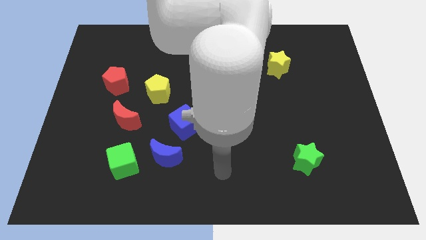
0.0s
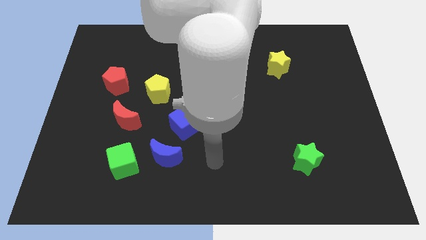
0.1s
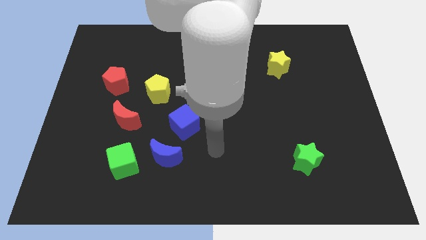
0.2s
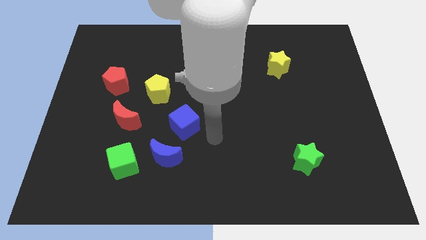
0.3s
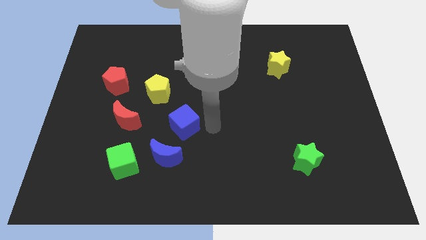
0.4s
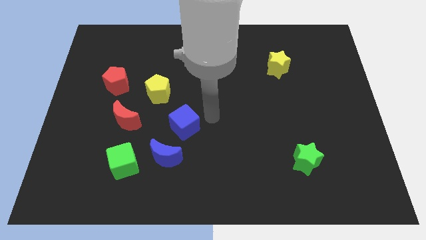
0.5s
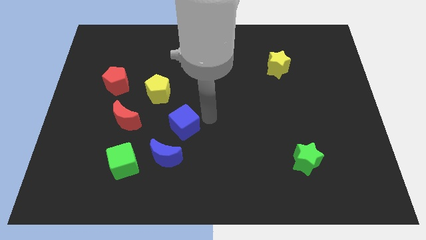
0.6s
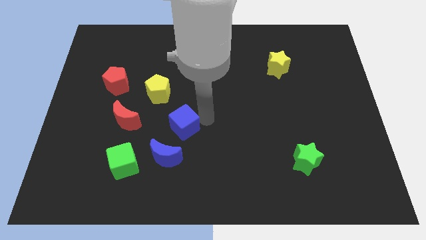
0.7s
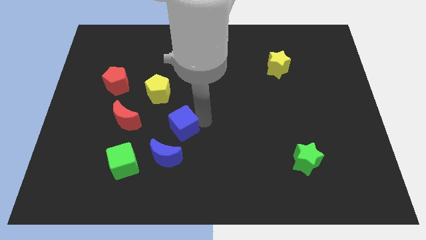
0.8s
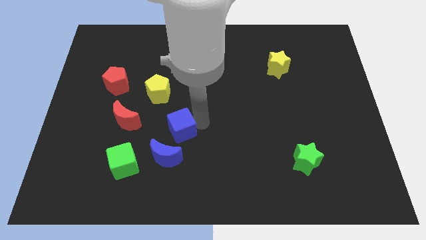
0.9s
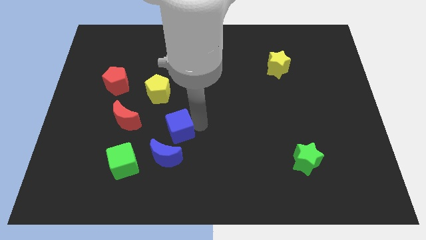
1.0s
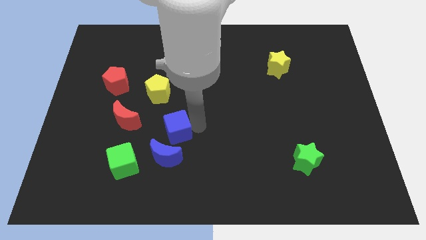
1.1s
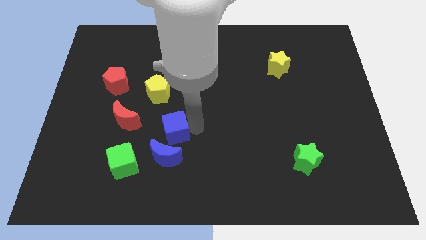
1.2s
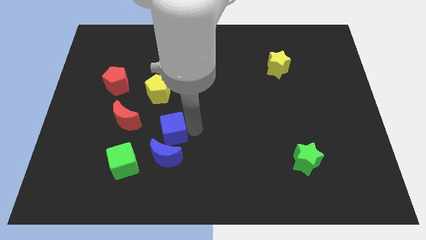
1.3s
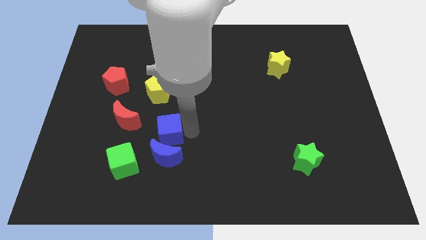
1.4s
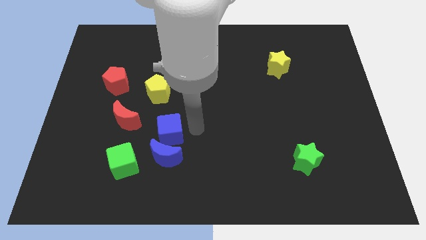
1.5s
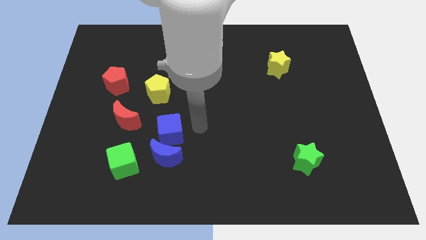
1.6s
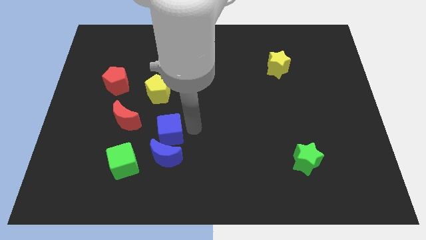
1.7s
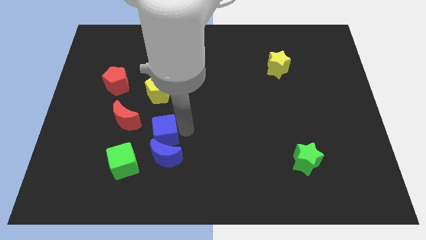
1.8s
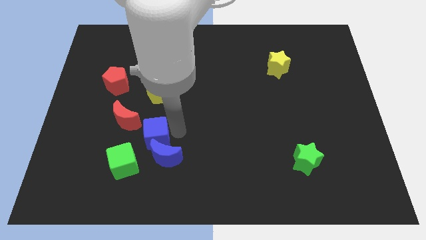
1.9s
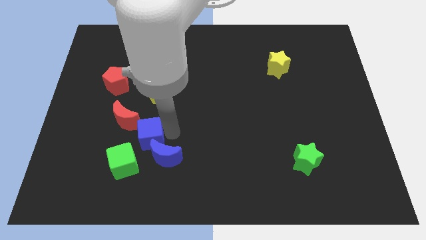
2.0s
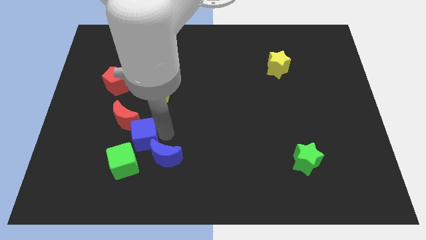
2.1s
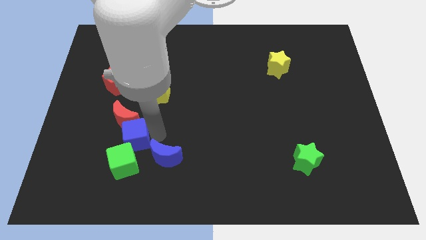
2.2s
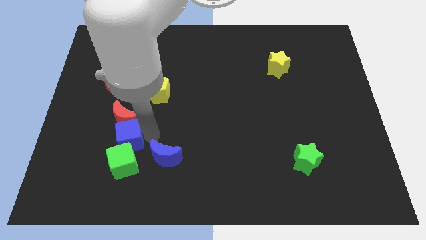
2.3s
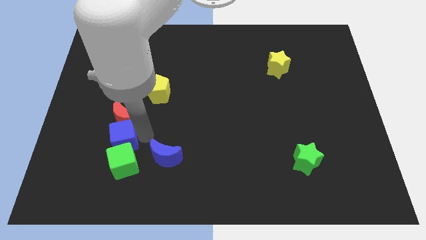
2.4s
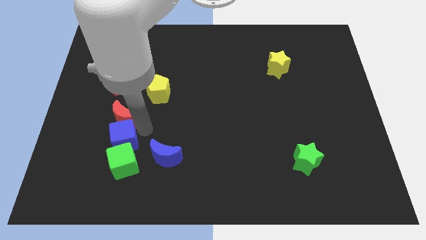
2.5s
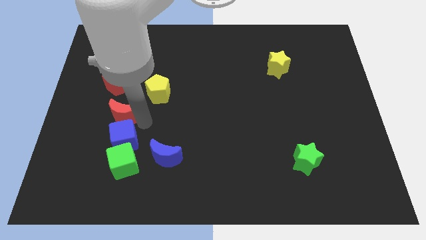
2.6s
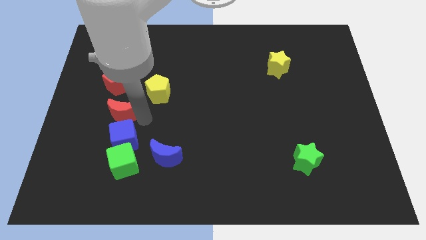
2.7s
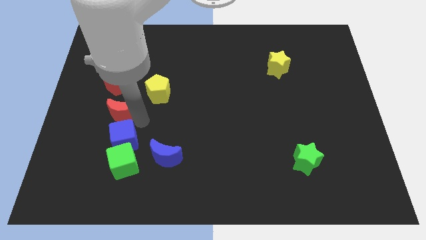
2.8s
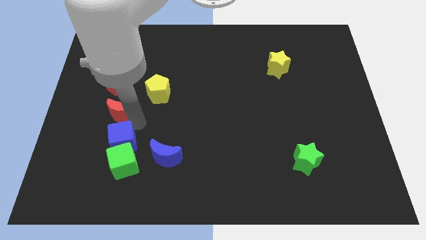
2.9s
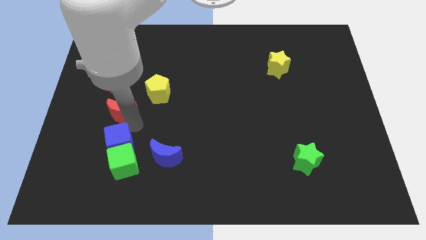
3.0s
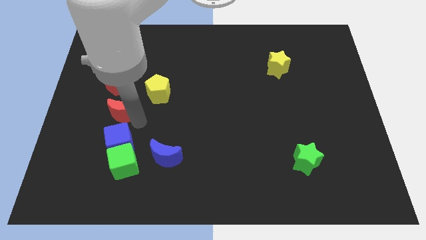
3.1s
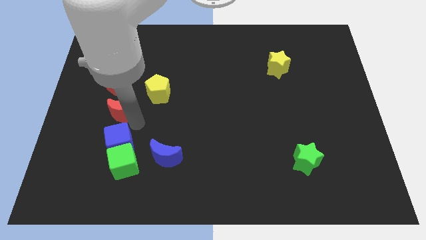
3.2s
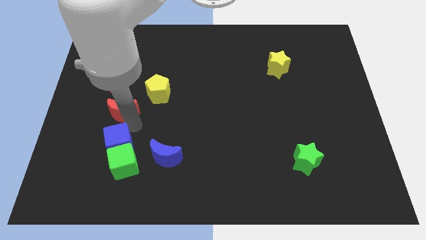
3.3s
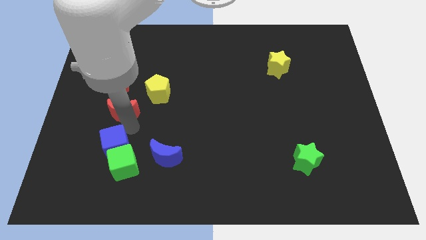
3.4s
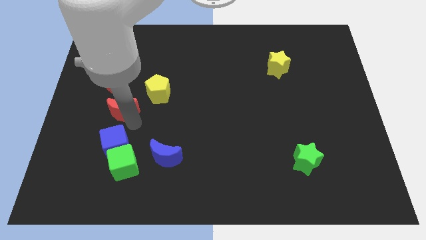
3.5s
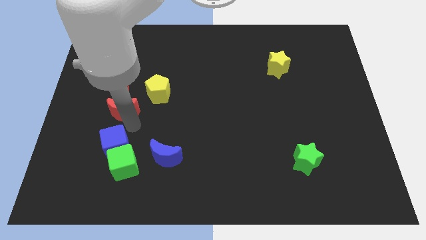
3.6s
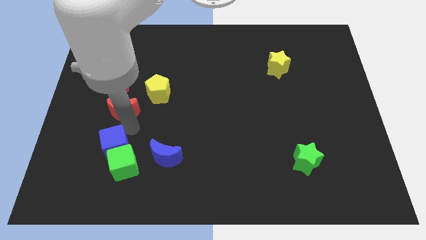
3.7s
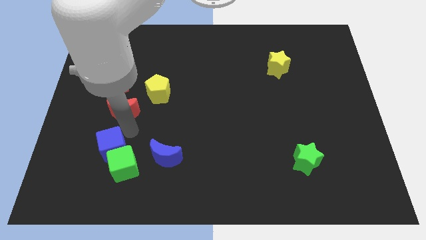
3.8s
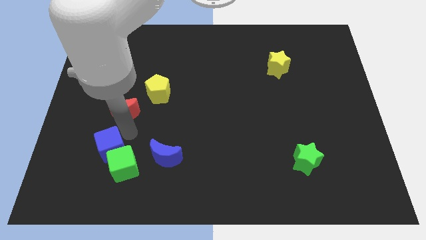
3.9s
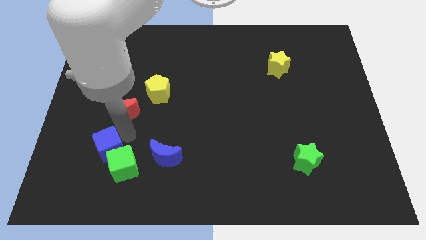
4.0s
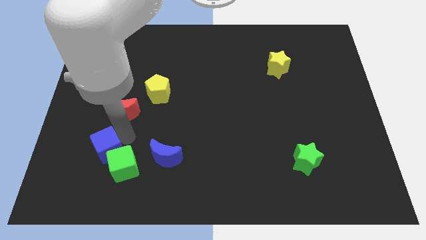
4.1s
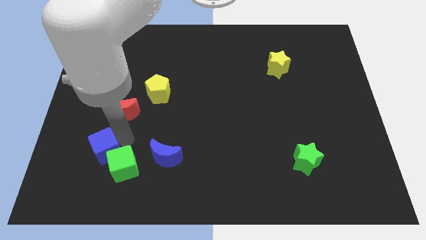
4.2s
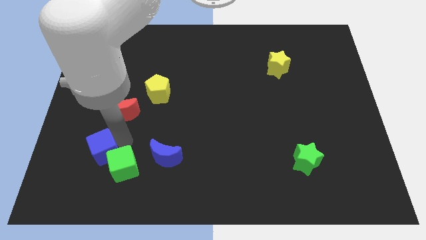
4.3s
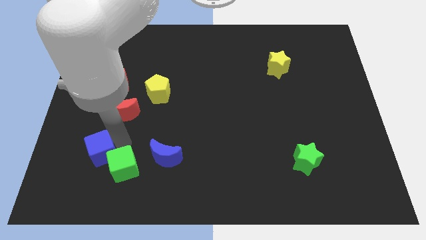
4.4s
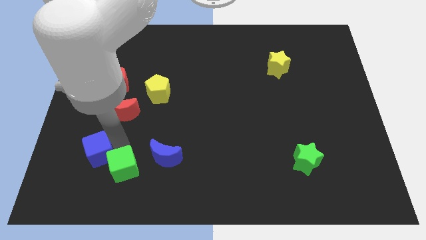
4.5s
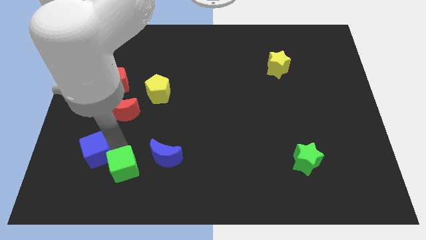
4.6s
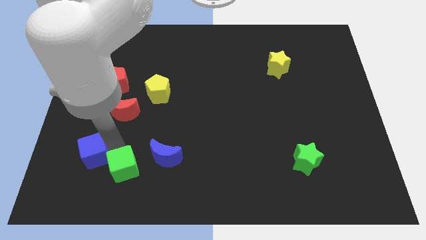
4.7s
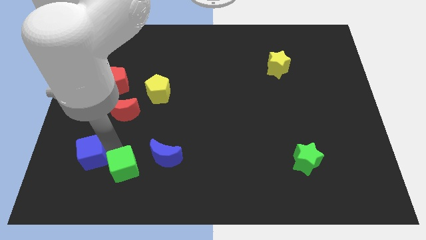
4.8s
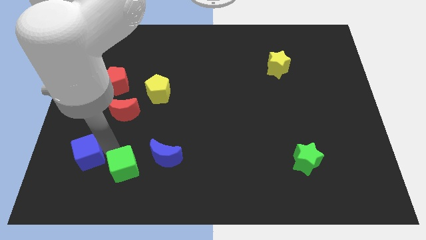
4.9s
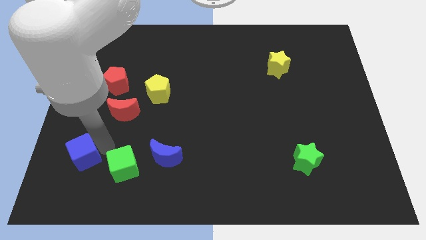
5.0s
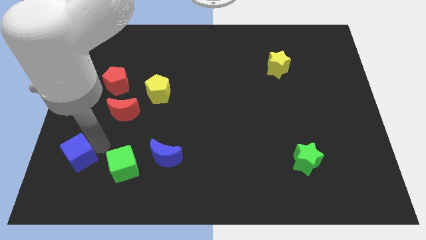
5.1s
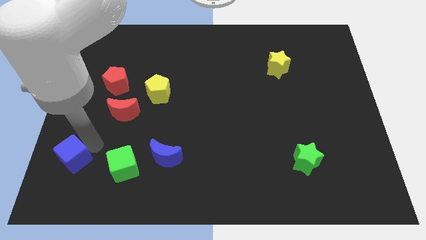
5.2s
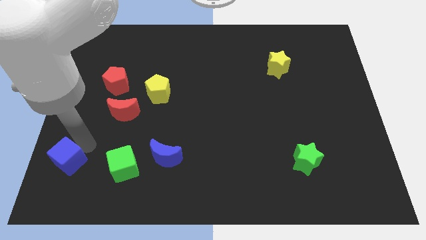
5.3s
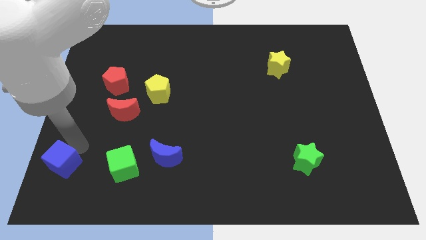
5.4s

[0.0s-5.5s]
push the blue cube to the bottom left of the board
